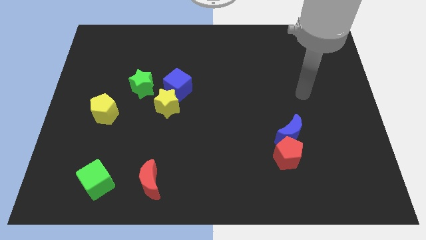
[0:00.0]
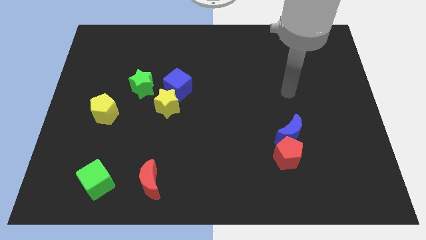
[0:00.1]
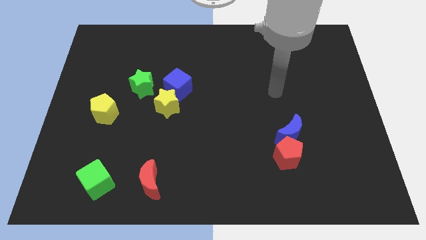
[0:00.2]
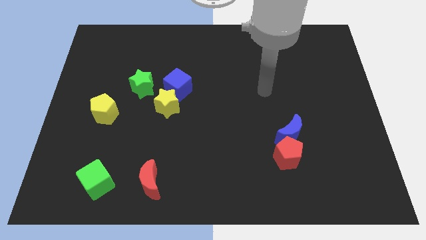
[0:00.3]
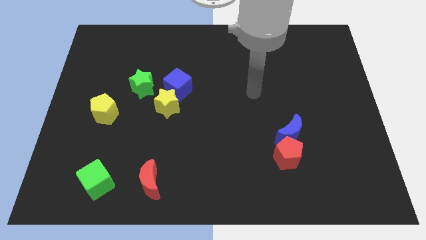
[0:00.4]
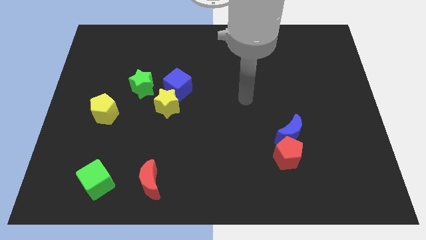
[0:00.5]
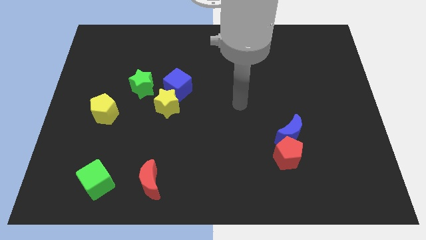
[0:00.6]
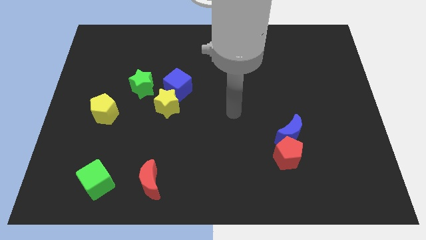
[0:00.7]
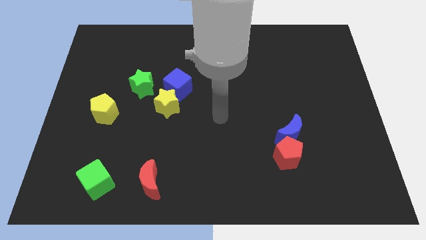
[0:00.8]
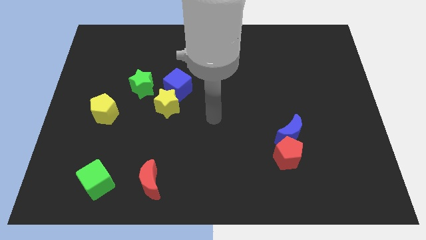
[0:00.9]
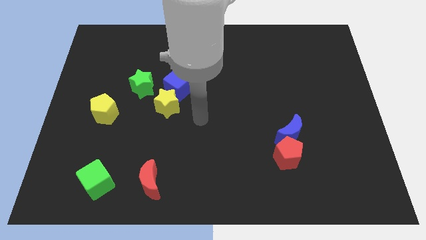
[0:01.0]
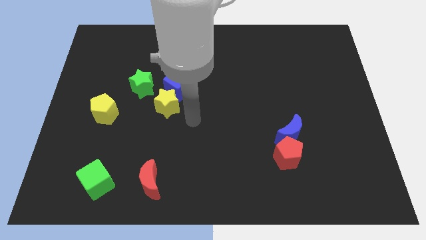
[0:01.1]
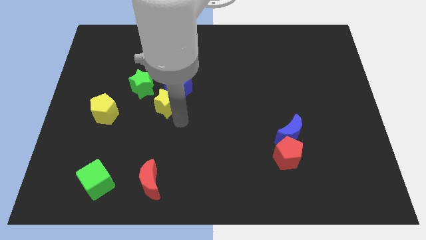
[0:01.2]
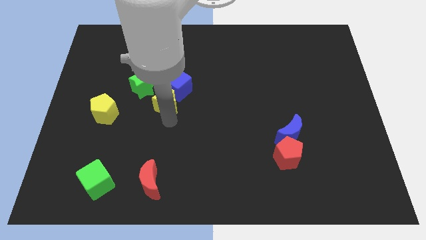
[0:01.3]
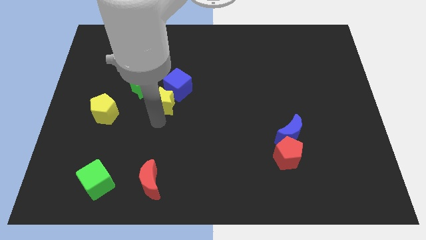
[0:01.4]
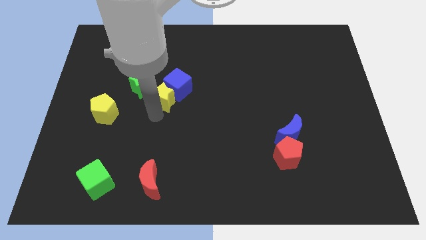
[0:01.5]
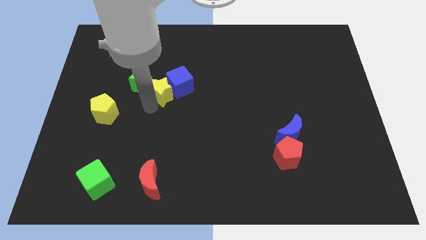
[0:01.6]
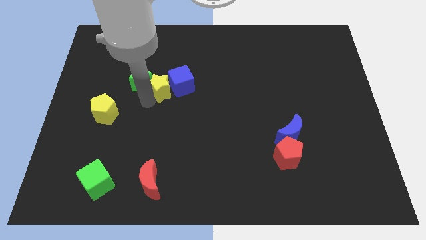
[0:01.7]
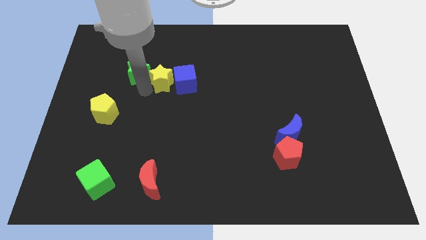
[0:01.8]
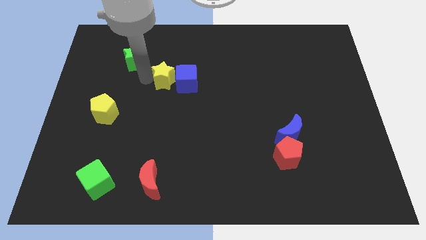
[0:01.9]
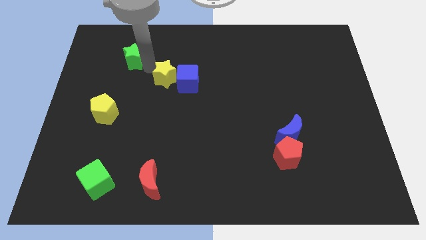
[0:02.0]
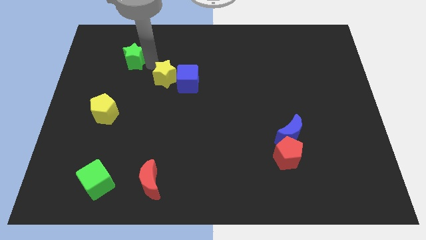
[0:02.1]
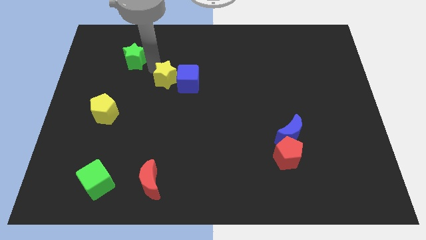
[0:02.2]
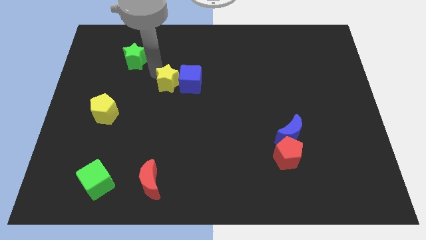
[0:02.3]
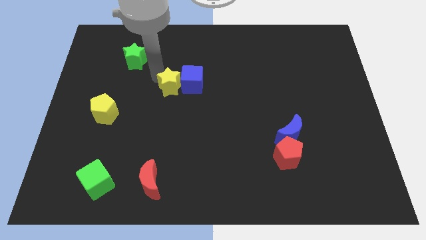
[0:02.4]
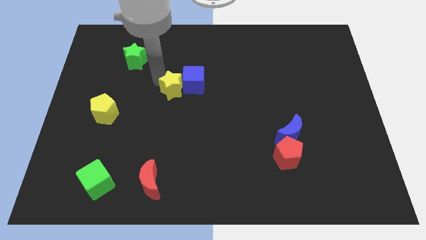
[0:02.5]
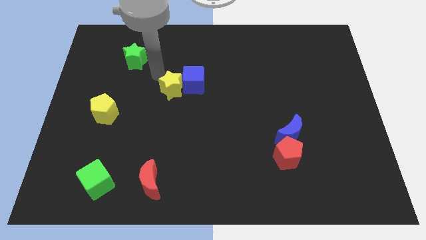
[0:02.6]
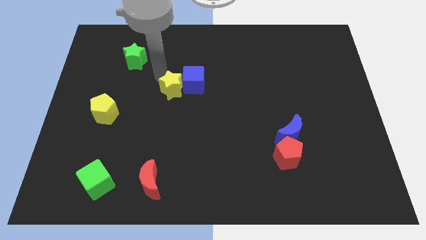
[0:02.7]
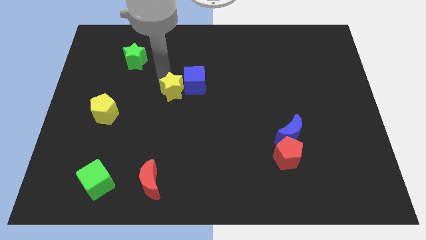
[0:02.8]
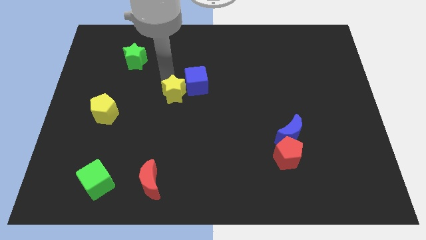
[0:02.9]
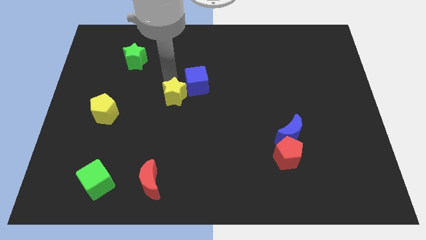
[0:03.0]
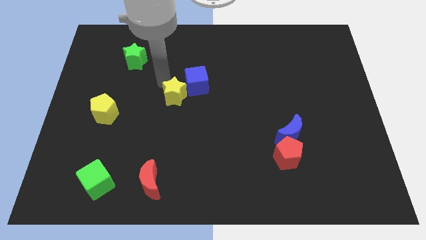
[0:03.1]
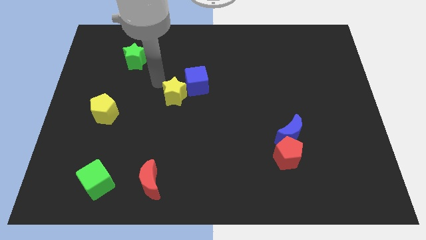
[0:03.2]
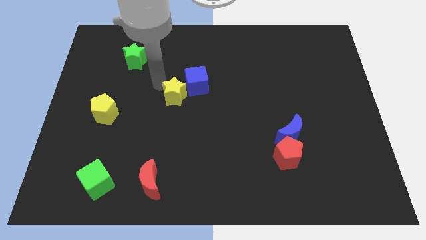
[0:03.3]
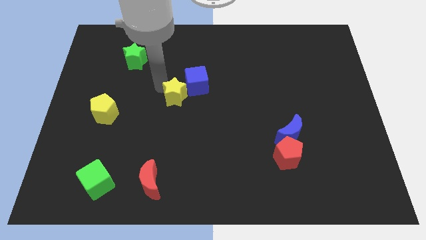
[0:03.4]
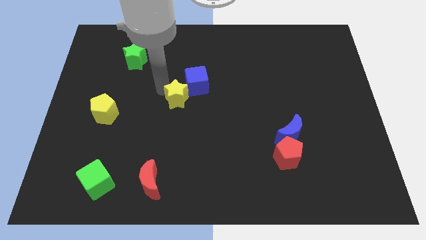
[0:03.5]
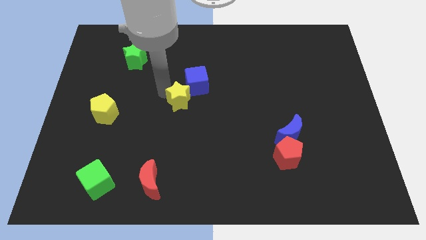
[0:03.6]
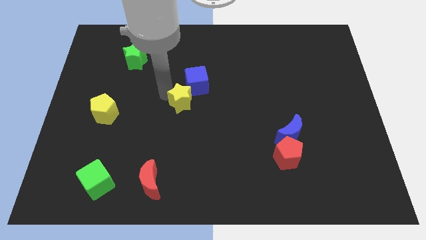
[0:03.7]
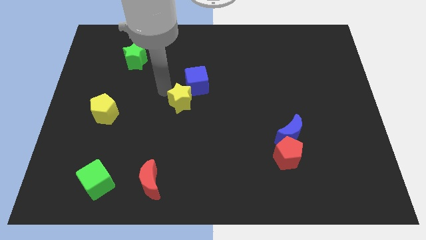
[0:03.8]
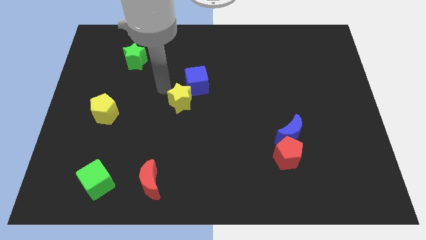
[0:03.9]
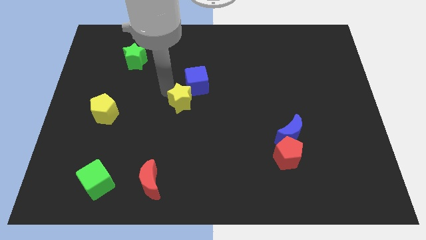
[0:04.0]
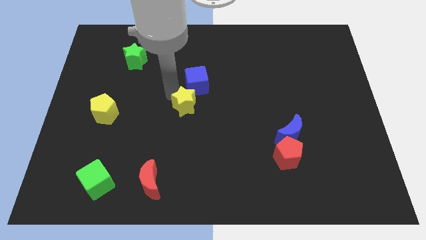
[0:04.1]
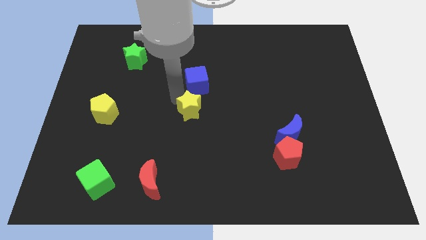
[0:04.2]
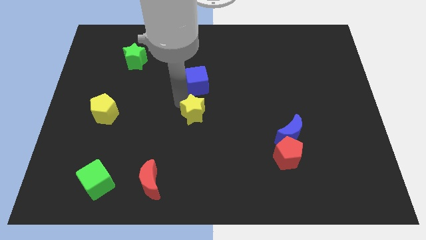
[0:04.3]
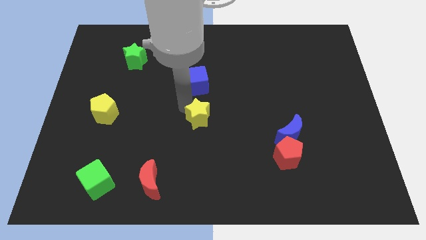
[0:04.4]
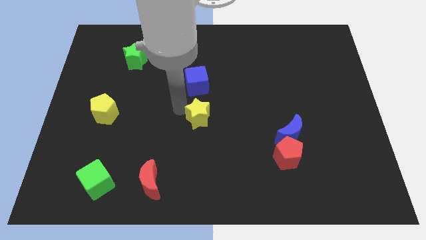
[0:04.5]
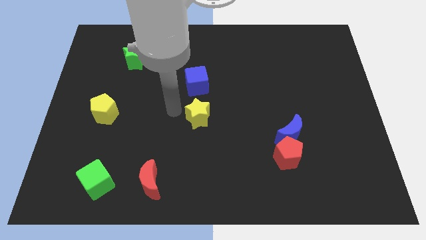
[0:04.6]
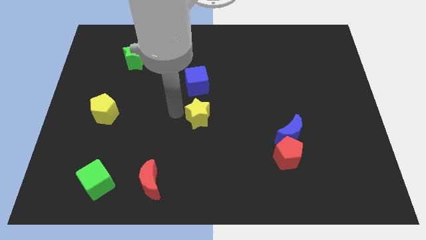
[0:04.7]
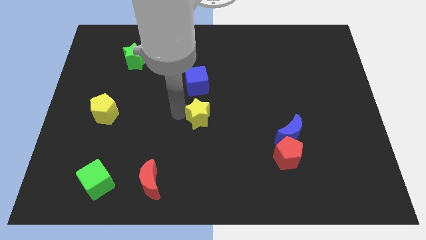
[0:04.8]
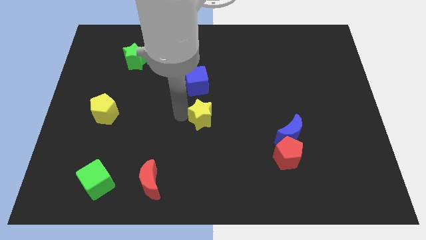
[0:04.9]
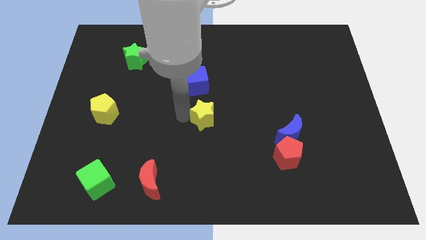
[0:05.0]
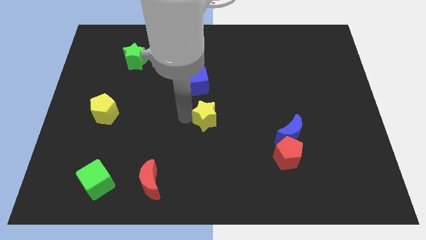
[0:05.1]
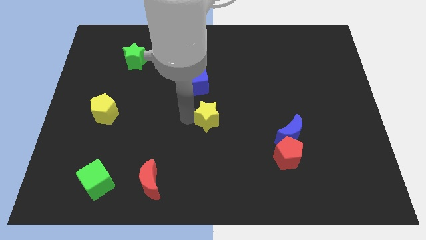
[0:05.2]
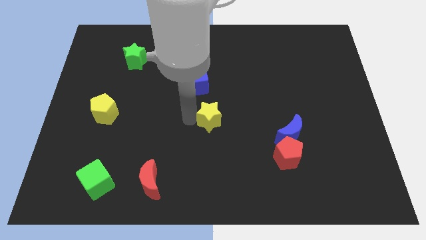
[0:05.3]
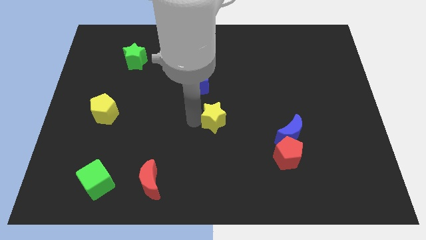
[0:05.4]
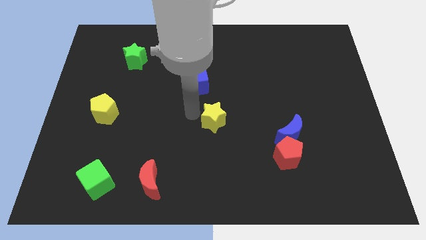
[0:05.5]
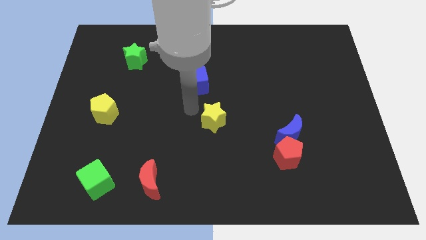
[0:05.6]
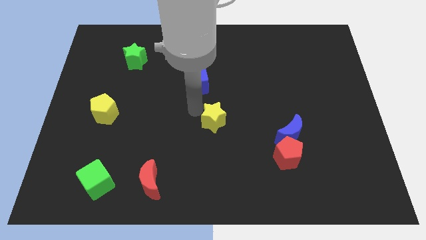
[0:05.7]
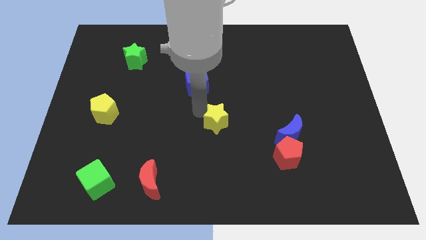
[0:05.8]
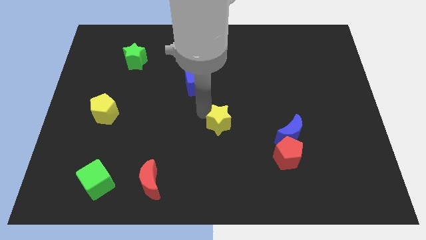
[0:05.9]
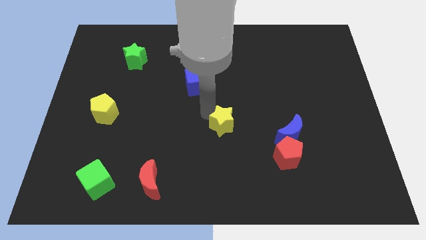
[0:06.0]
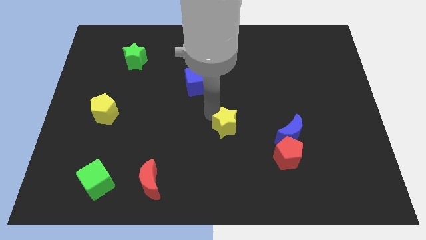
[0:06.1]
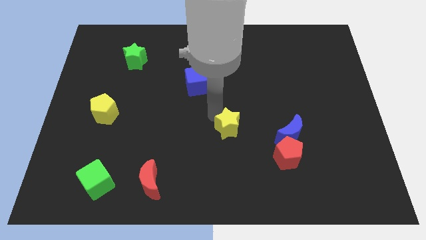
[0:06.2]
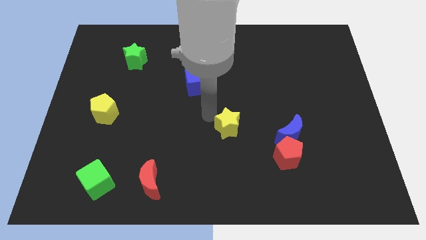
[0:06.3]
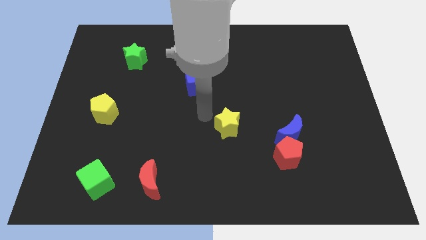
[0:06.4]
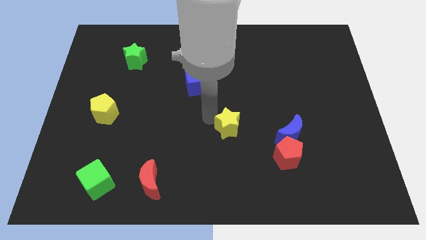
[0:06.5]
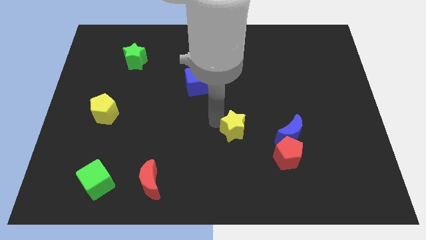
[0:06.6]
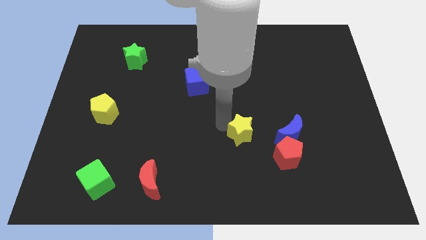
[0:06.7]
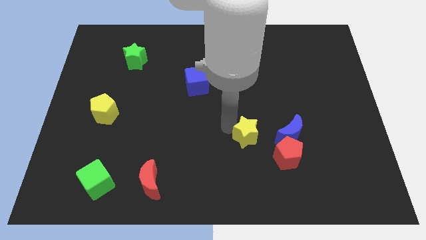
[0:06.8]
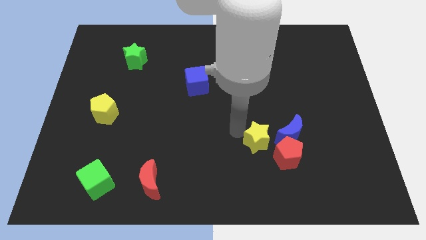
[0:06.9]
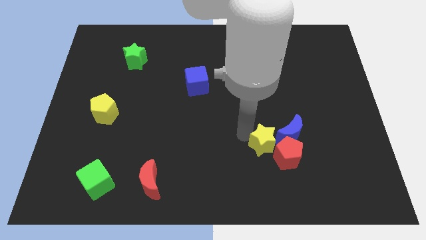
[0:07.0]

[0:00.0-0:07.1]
move the yellow star next to the red pentagon
